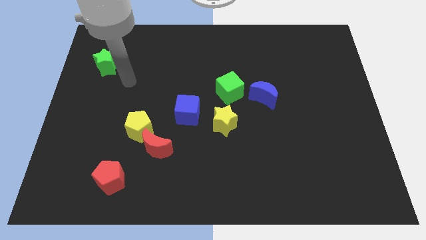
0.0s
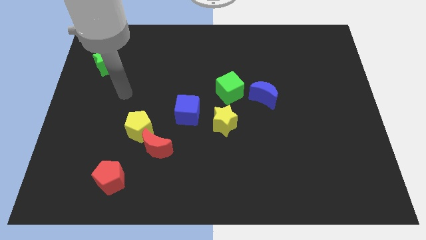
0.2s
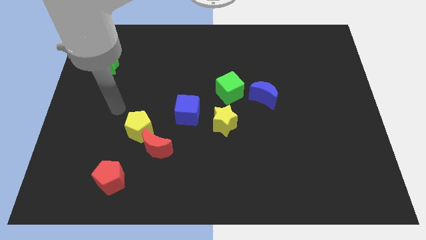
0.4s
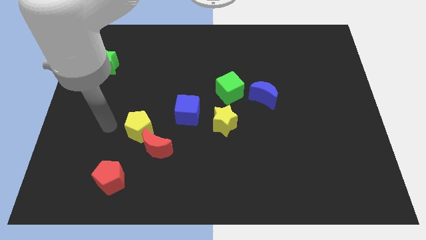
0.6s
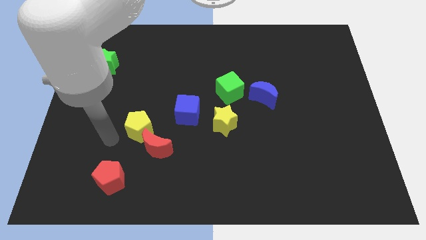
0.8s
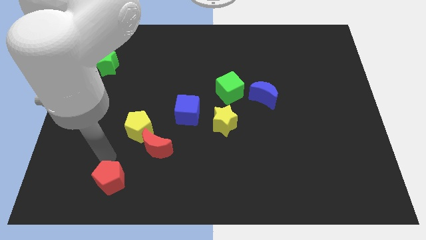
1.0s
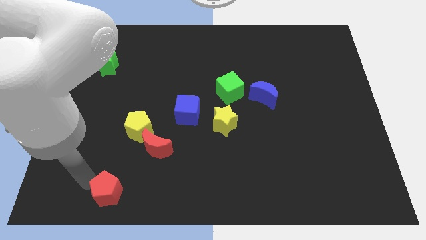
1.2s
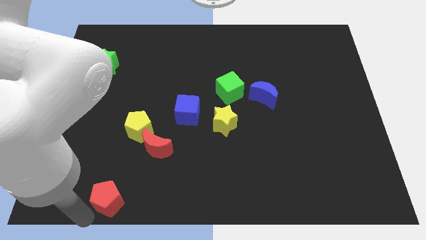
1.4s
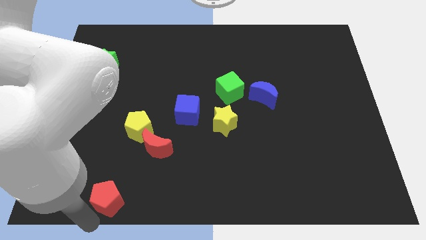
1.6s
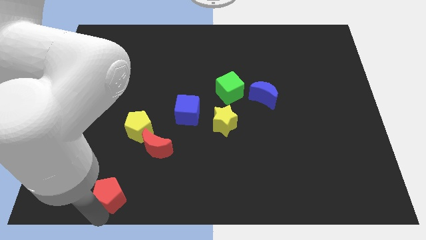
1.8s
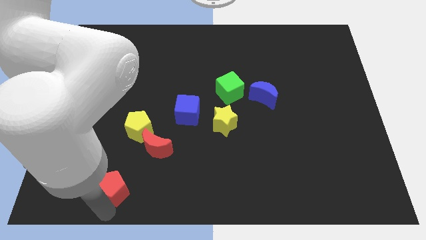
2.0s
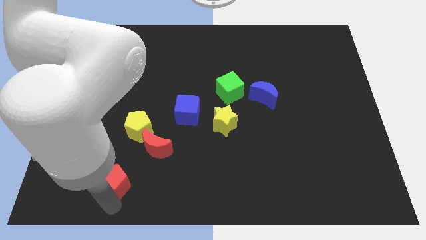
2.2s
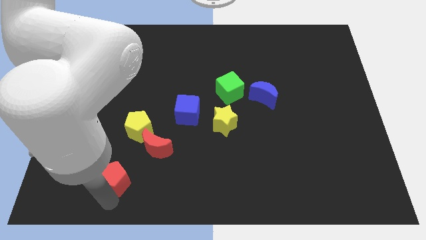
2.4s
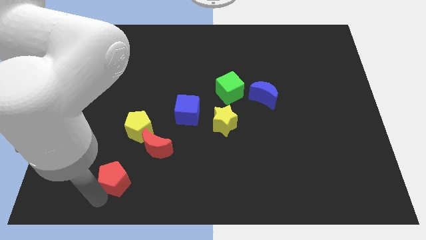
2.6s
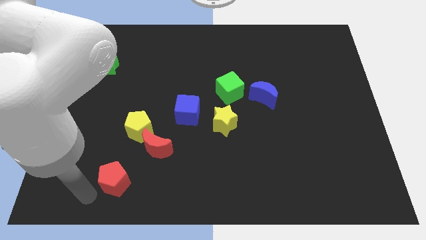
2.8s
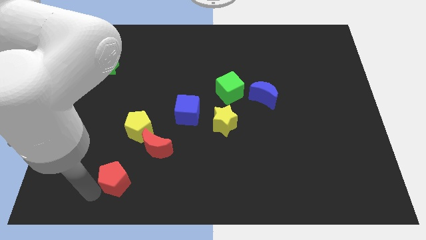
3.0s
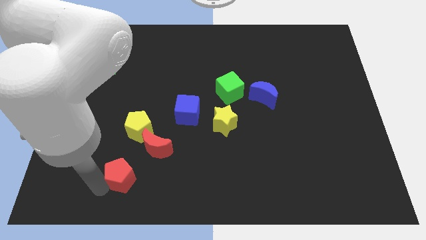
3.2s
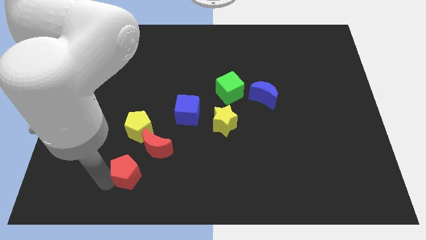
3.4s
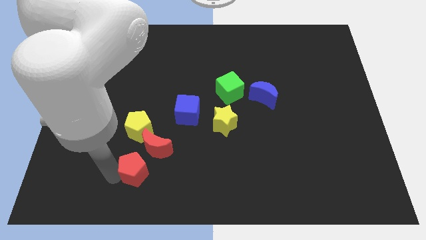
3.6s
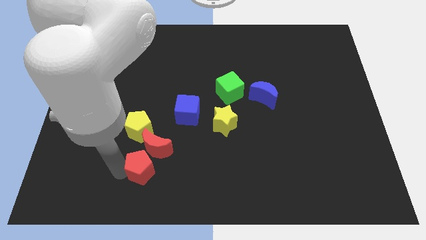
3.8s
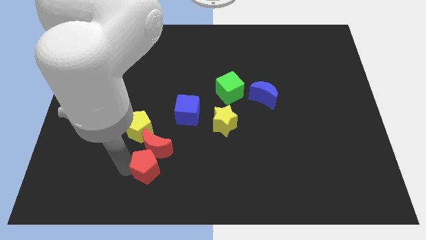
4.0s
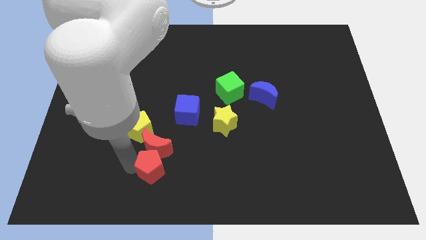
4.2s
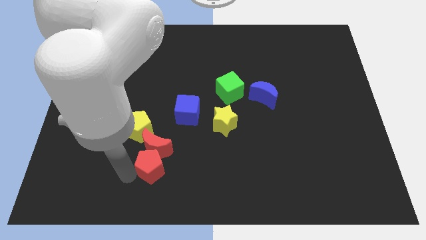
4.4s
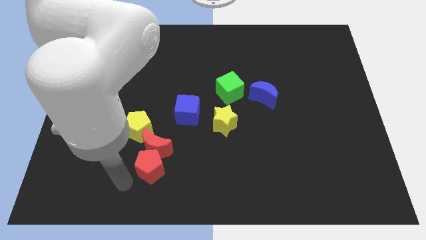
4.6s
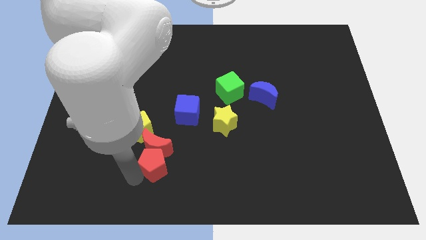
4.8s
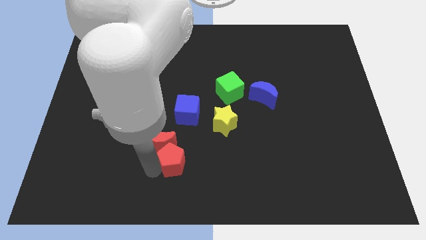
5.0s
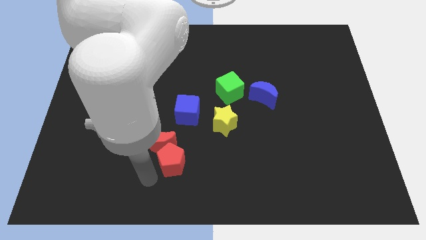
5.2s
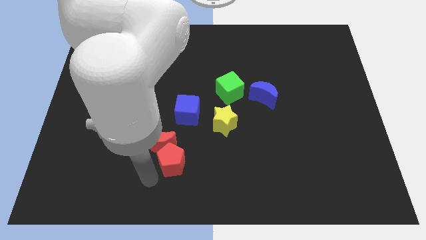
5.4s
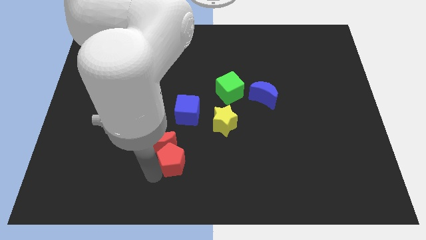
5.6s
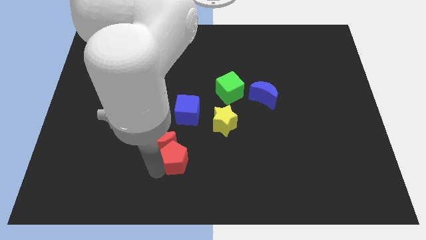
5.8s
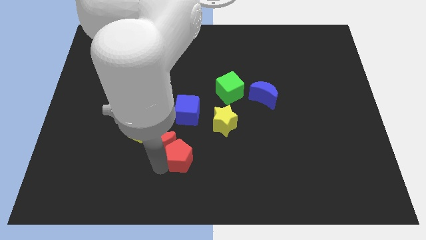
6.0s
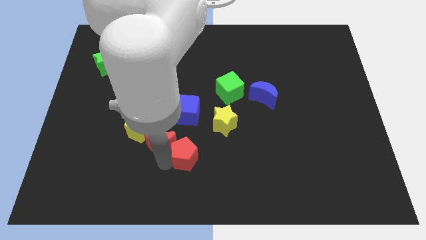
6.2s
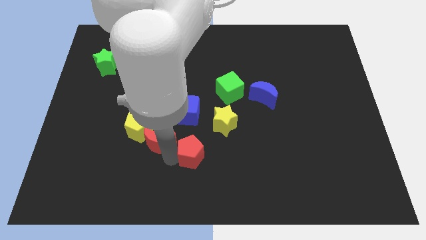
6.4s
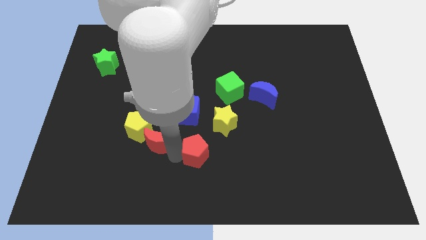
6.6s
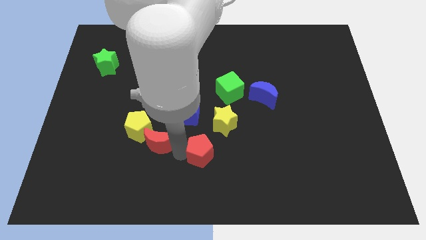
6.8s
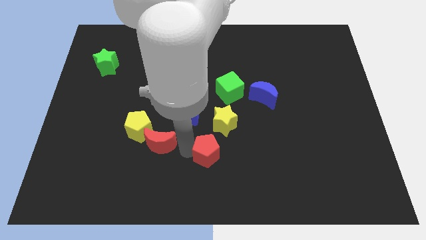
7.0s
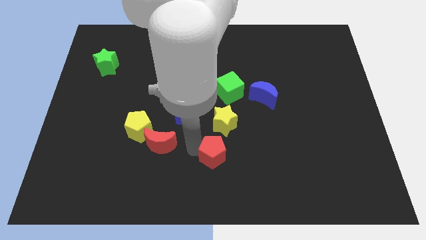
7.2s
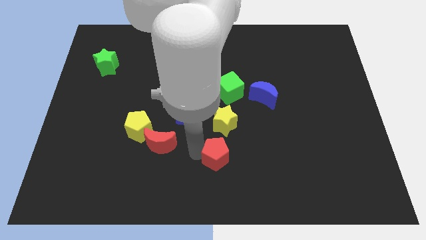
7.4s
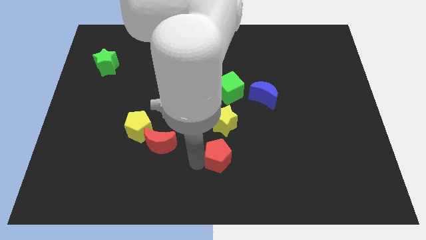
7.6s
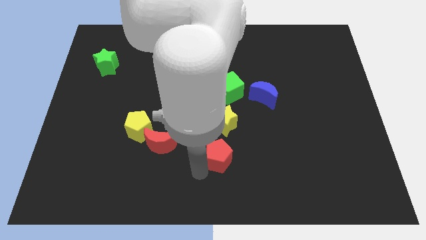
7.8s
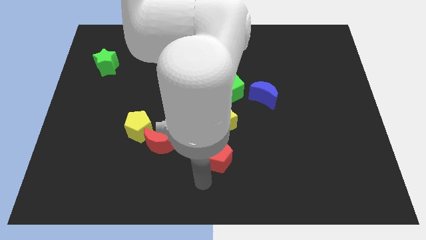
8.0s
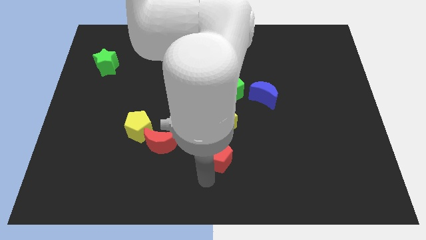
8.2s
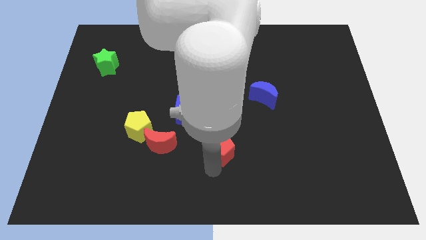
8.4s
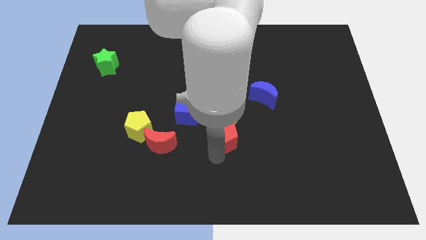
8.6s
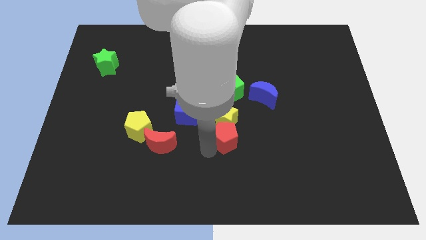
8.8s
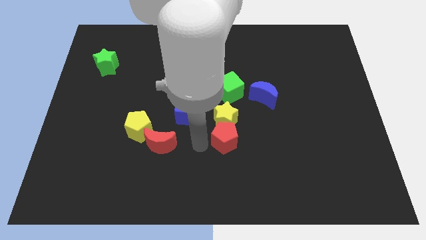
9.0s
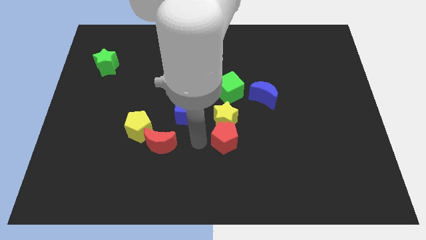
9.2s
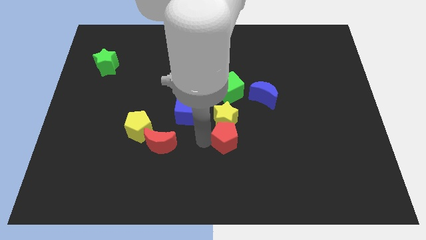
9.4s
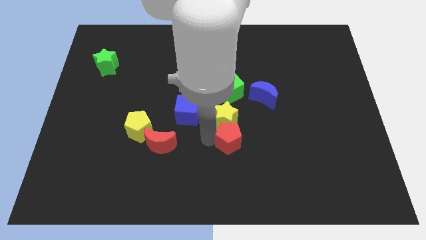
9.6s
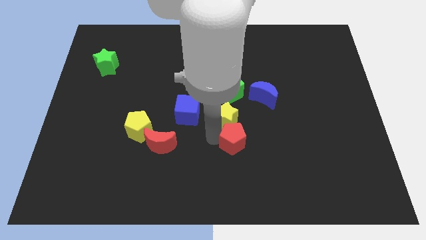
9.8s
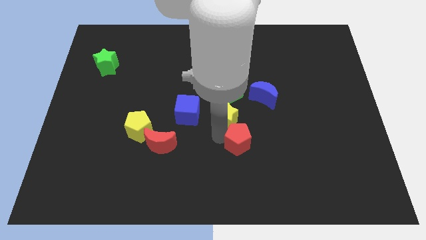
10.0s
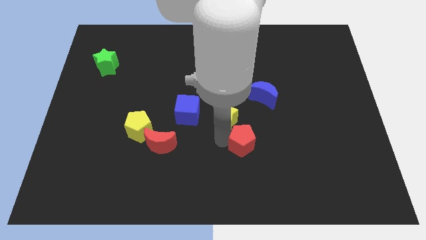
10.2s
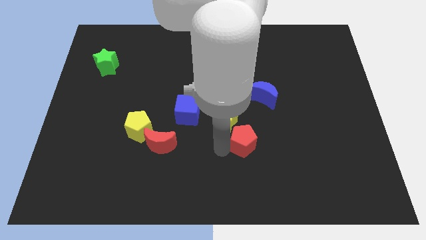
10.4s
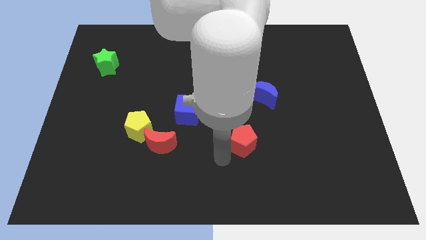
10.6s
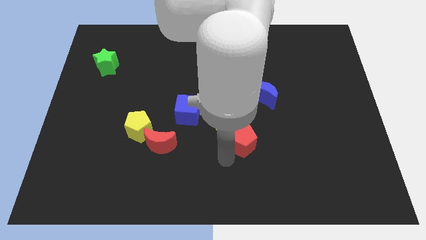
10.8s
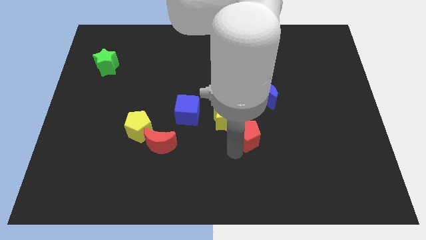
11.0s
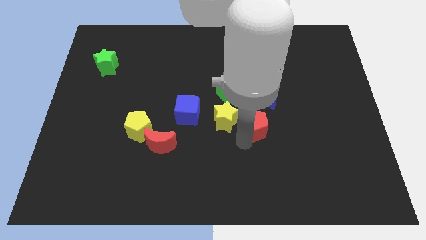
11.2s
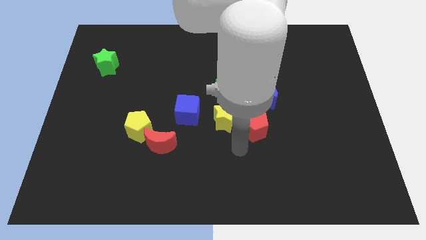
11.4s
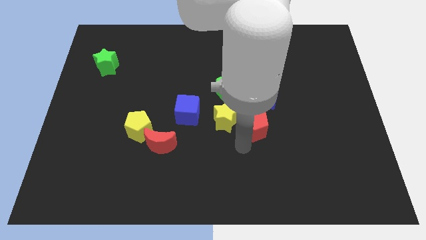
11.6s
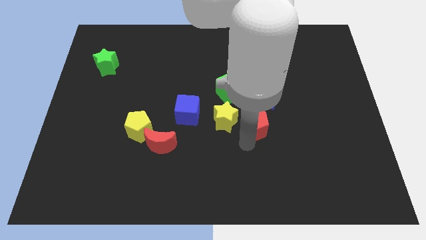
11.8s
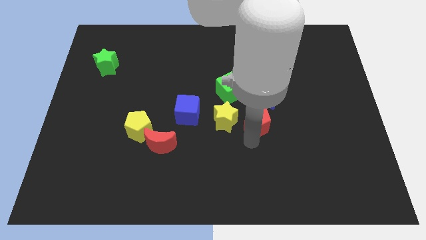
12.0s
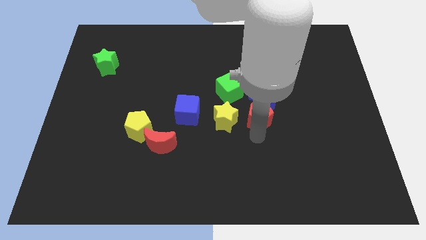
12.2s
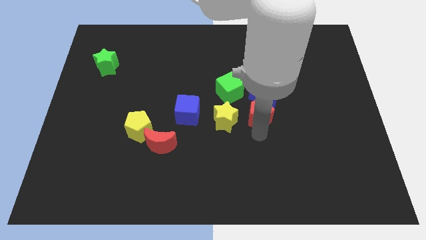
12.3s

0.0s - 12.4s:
move the red pentagon close to the blue moon
